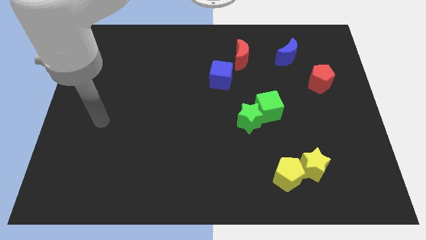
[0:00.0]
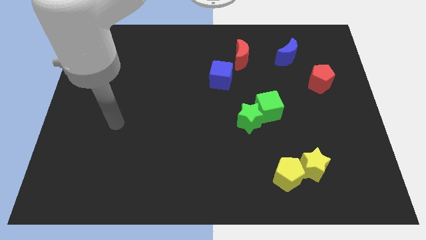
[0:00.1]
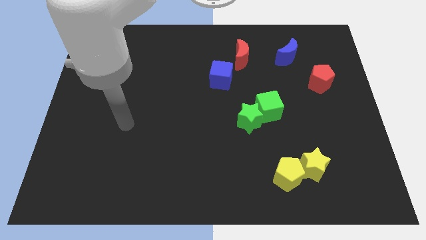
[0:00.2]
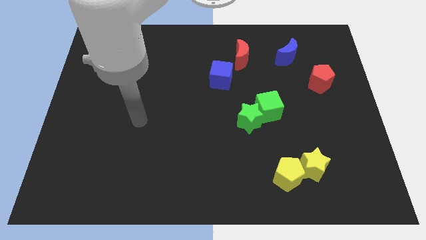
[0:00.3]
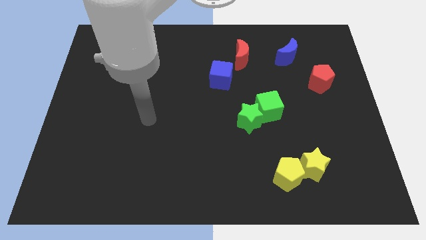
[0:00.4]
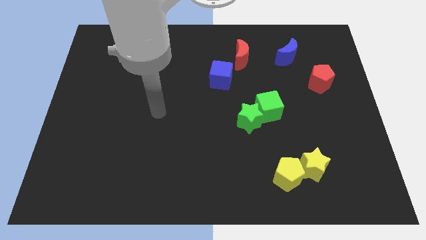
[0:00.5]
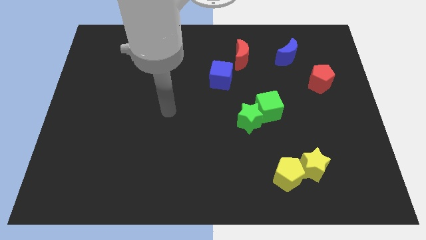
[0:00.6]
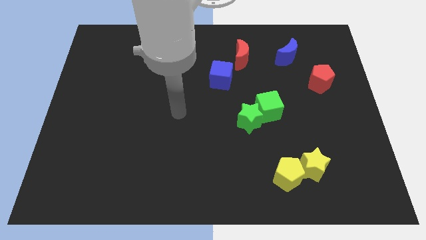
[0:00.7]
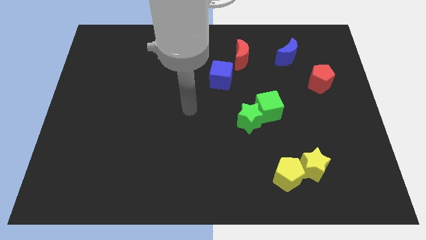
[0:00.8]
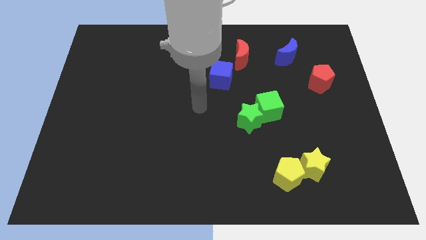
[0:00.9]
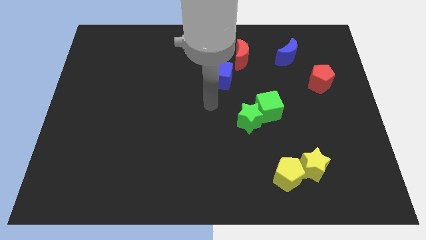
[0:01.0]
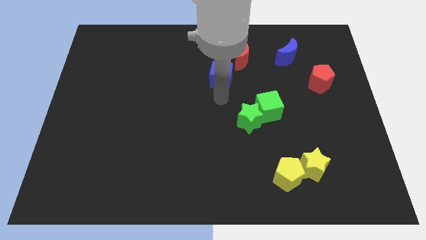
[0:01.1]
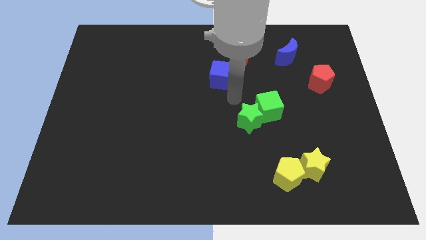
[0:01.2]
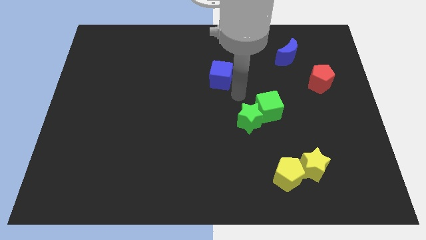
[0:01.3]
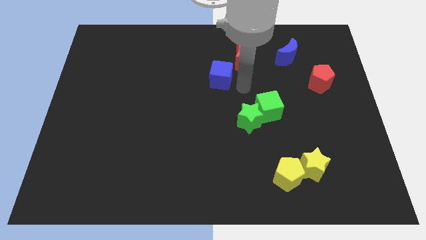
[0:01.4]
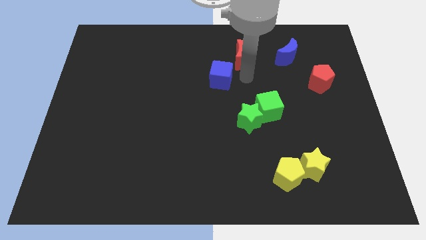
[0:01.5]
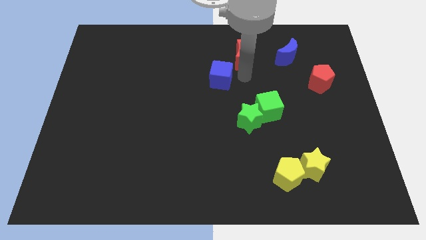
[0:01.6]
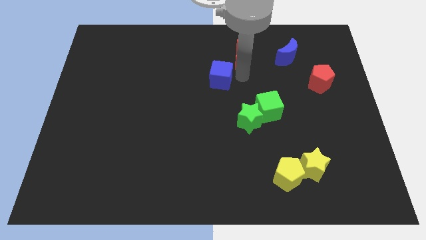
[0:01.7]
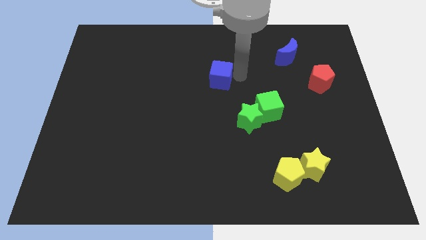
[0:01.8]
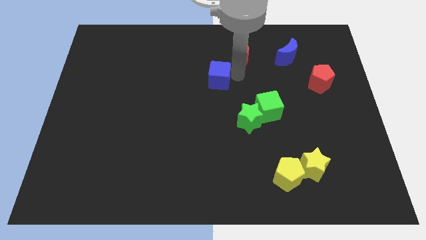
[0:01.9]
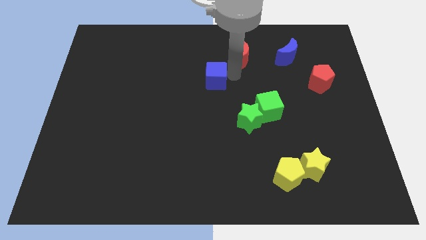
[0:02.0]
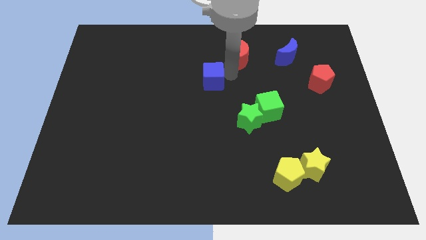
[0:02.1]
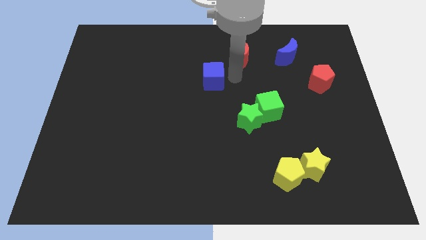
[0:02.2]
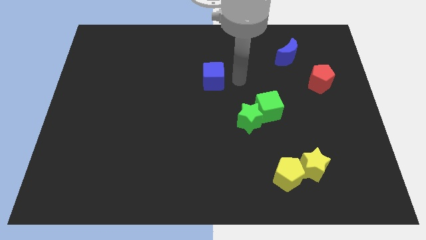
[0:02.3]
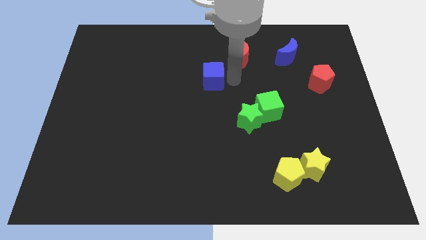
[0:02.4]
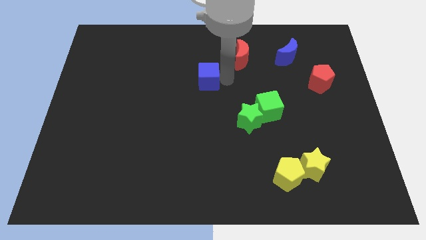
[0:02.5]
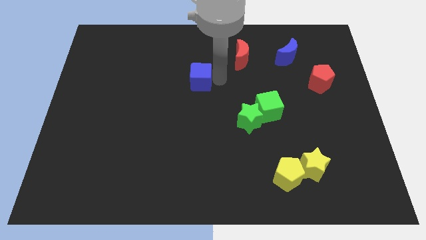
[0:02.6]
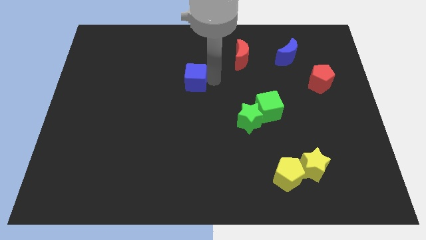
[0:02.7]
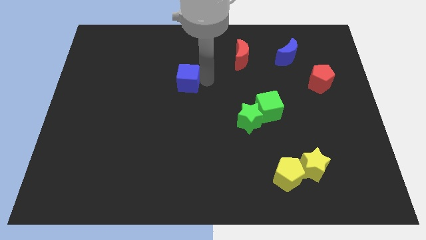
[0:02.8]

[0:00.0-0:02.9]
slide the blue cube to the left a little bit

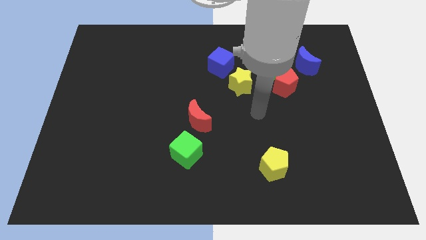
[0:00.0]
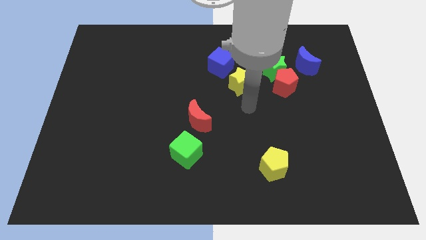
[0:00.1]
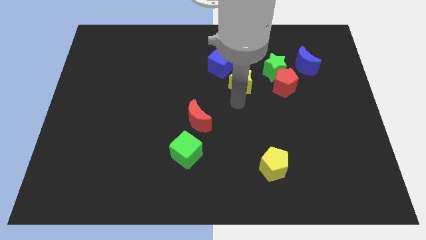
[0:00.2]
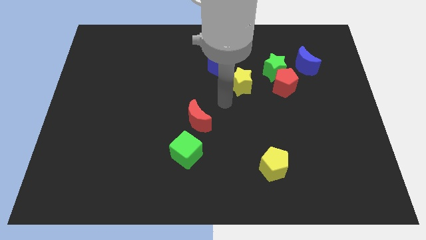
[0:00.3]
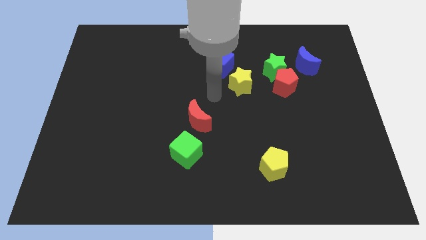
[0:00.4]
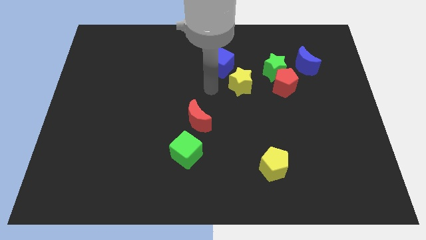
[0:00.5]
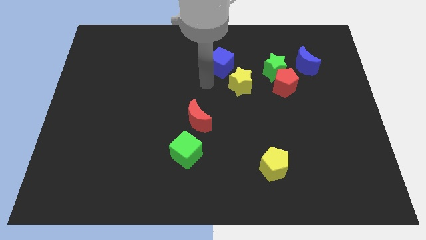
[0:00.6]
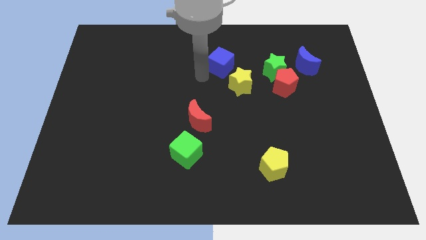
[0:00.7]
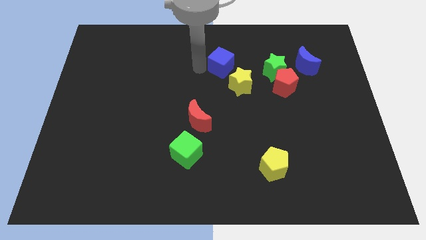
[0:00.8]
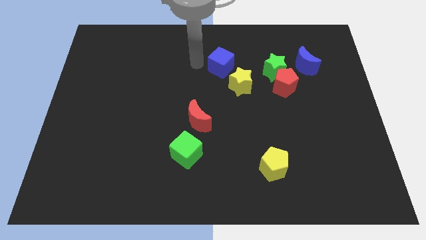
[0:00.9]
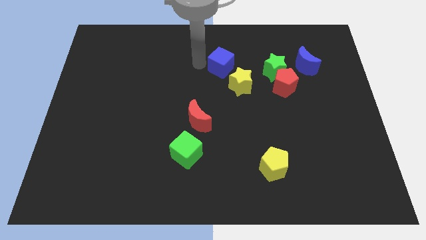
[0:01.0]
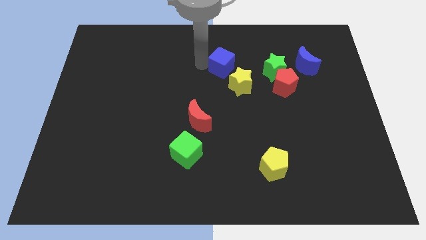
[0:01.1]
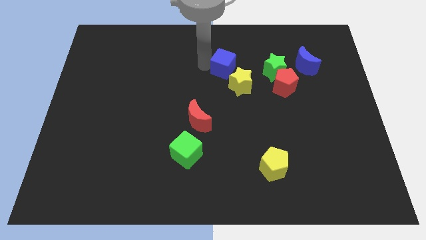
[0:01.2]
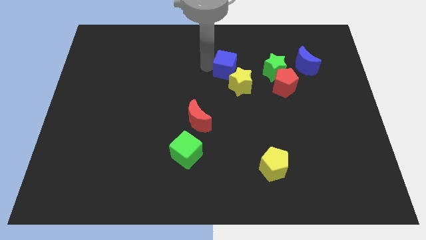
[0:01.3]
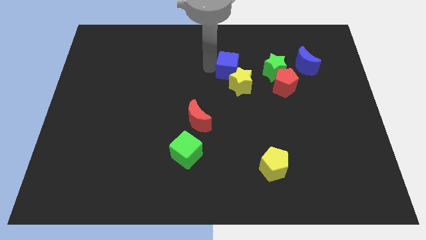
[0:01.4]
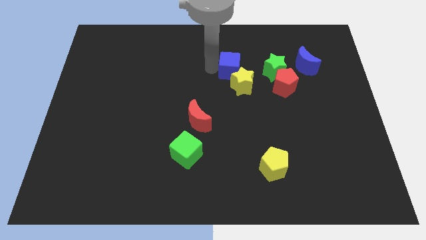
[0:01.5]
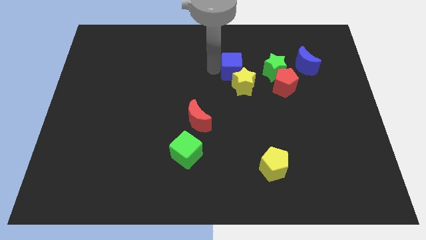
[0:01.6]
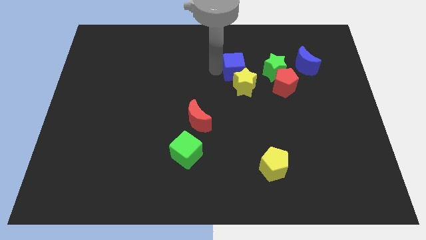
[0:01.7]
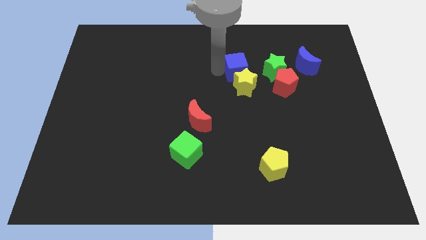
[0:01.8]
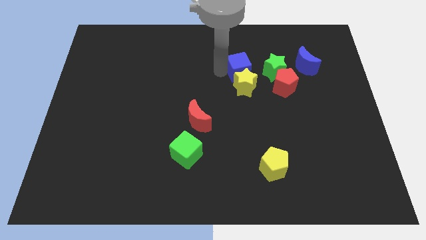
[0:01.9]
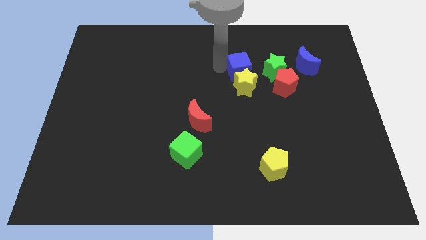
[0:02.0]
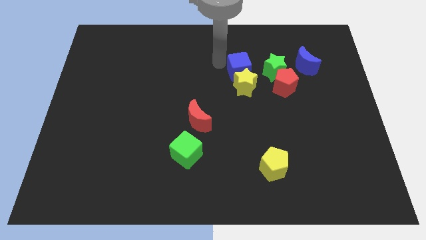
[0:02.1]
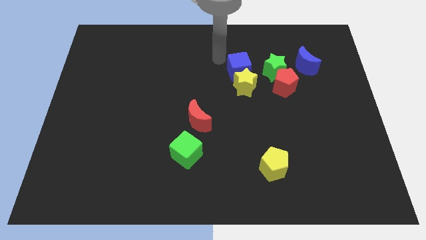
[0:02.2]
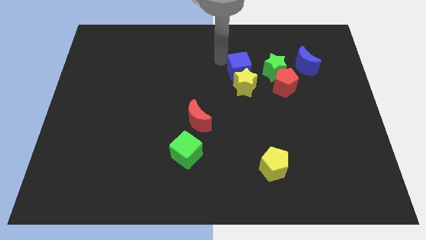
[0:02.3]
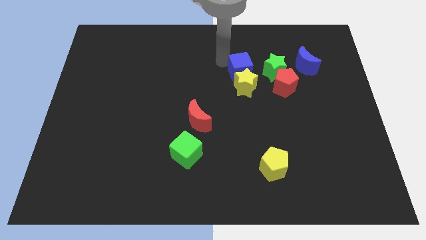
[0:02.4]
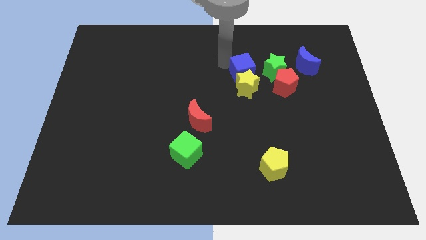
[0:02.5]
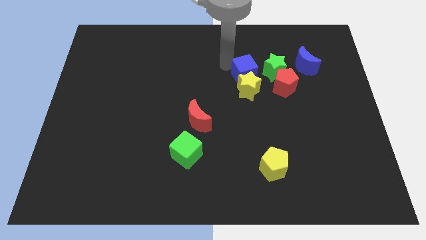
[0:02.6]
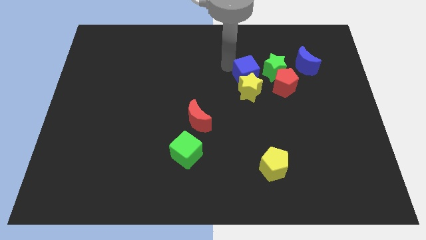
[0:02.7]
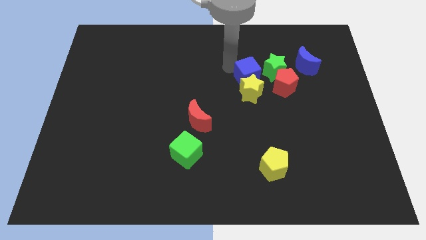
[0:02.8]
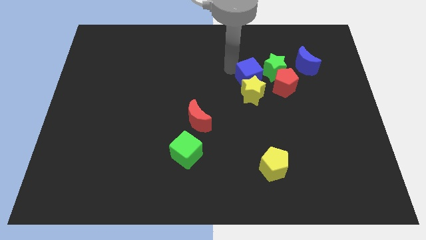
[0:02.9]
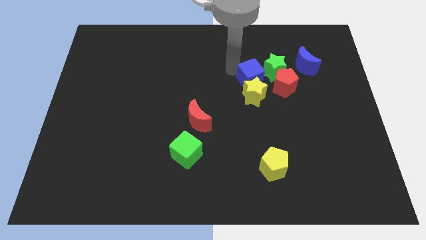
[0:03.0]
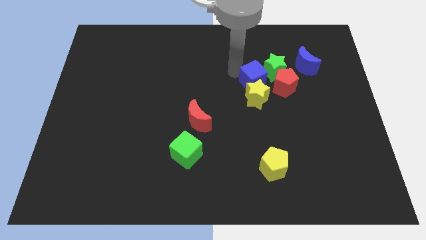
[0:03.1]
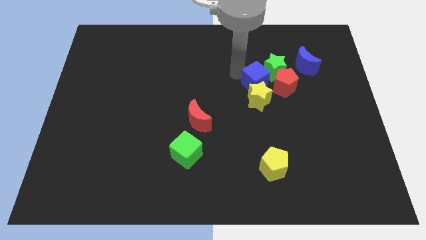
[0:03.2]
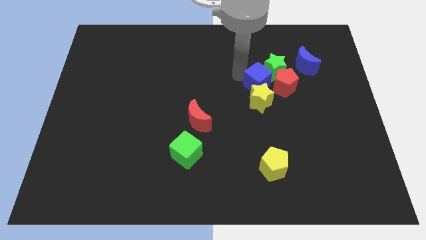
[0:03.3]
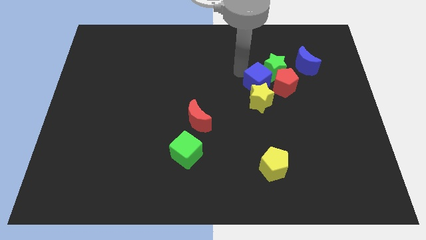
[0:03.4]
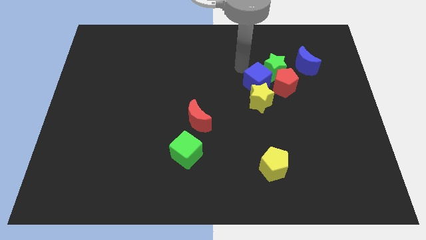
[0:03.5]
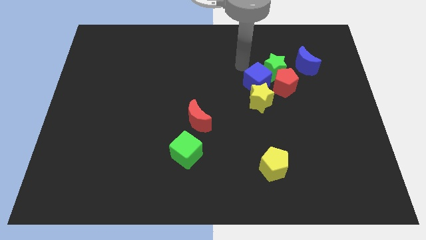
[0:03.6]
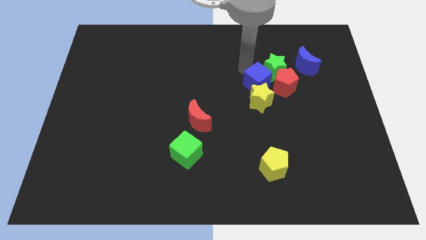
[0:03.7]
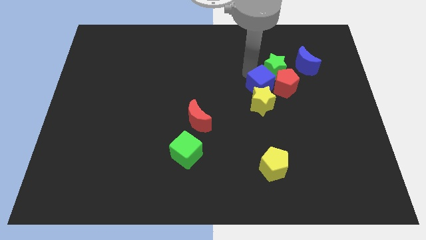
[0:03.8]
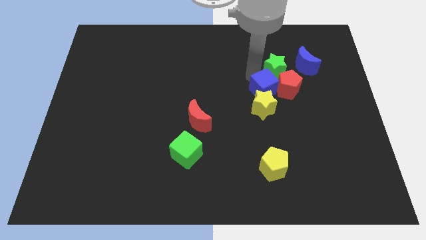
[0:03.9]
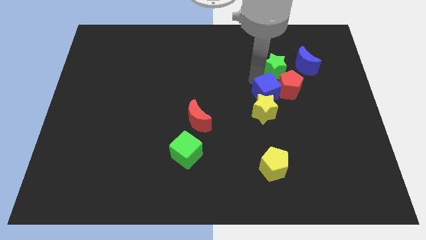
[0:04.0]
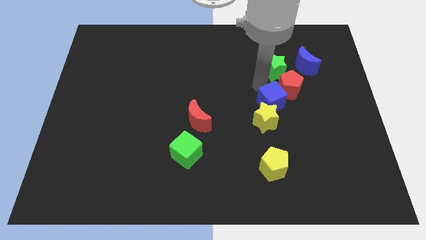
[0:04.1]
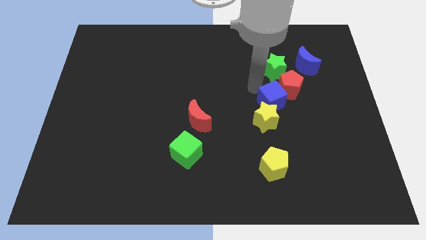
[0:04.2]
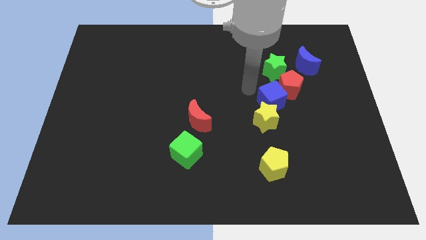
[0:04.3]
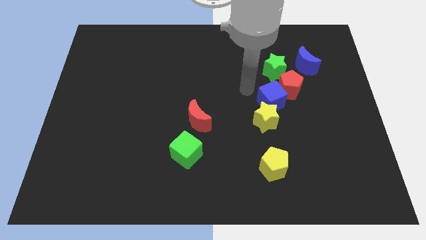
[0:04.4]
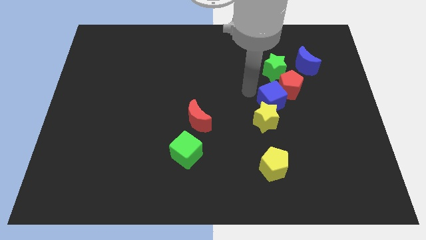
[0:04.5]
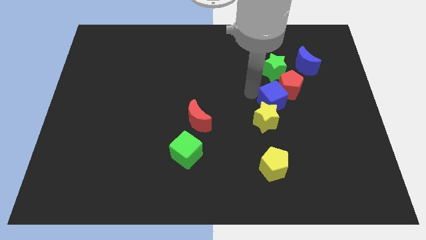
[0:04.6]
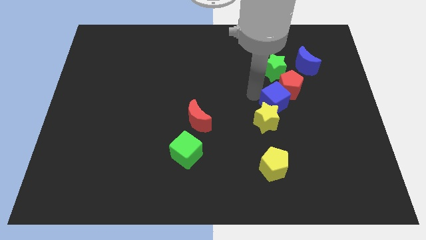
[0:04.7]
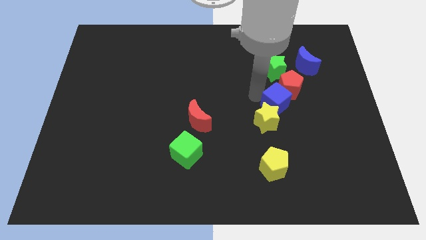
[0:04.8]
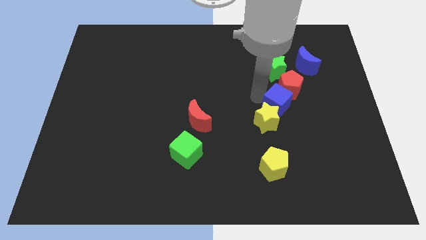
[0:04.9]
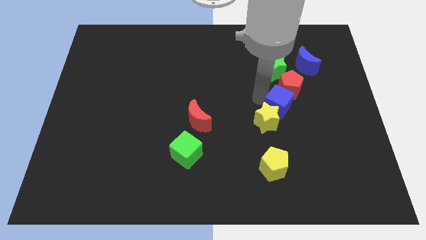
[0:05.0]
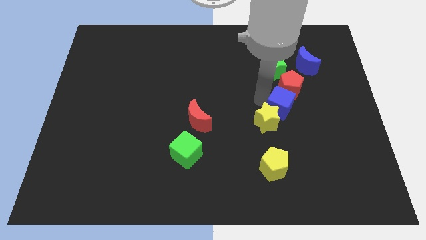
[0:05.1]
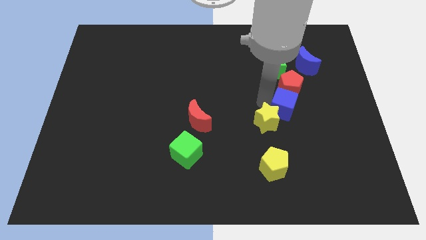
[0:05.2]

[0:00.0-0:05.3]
push the blue cube down and then to the right
